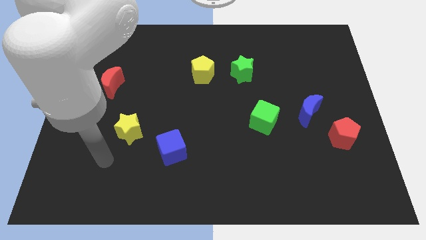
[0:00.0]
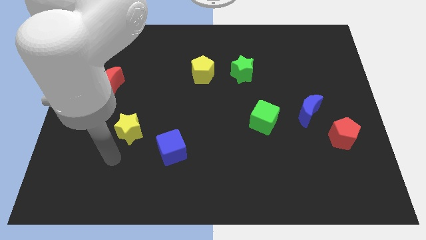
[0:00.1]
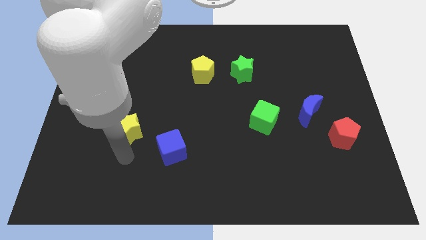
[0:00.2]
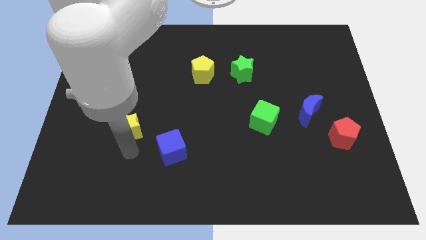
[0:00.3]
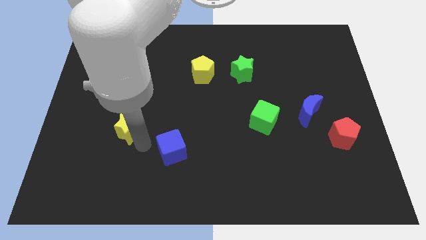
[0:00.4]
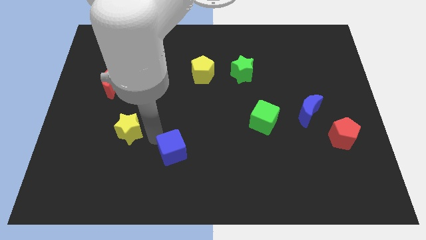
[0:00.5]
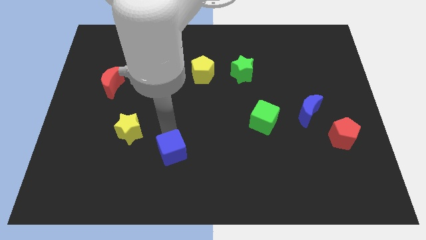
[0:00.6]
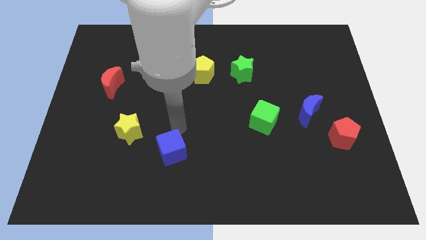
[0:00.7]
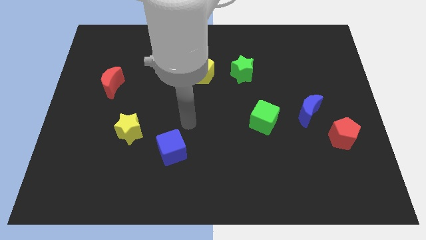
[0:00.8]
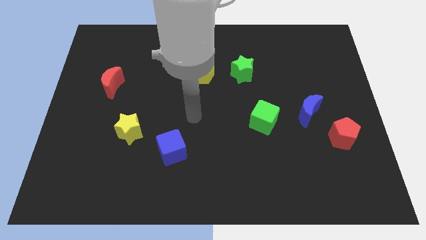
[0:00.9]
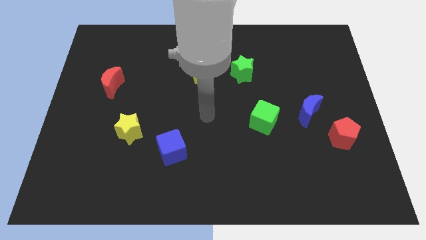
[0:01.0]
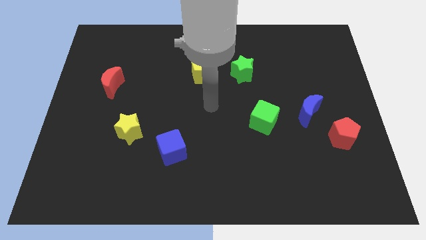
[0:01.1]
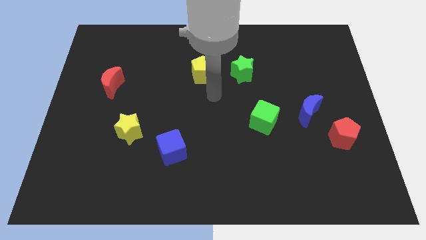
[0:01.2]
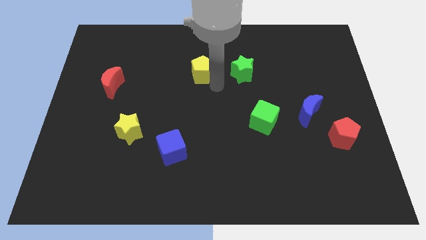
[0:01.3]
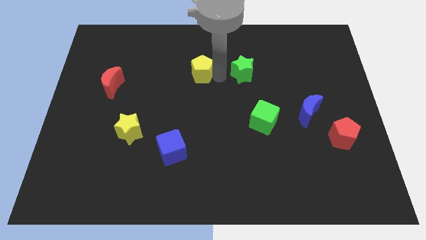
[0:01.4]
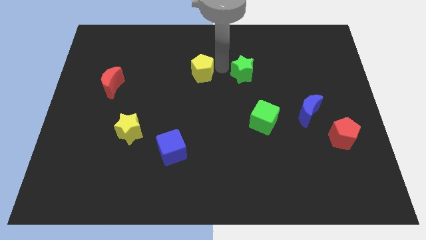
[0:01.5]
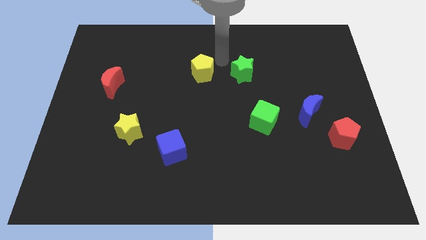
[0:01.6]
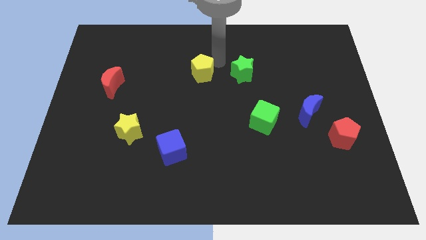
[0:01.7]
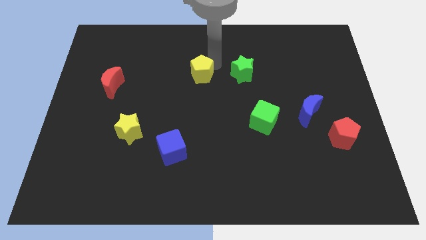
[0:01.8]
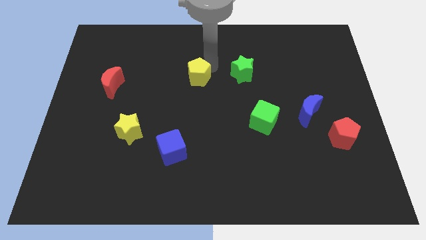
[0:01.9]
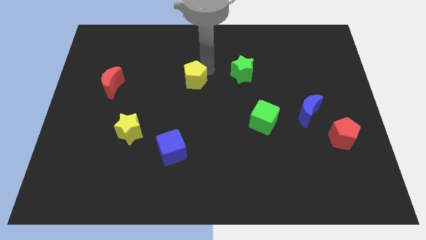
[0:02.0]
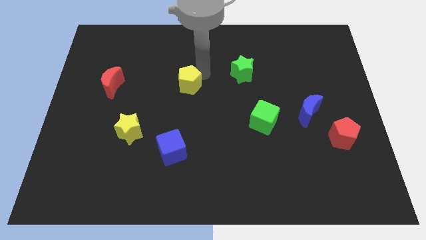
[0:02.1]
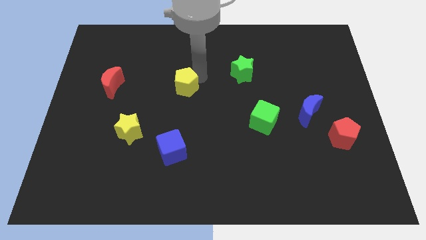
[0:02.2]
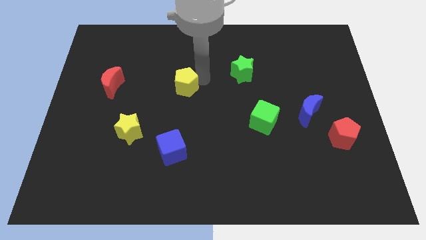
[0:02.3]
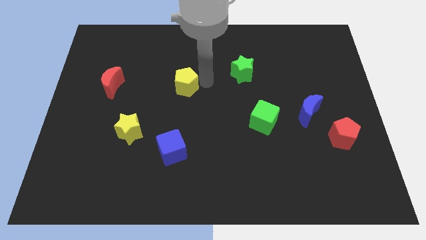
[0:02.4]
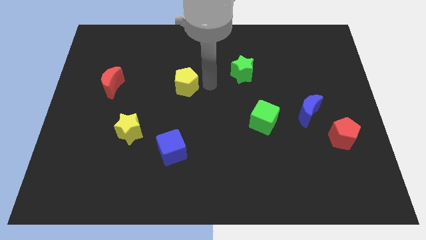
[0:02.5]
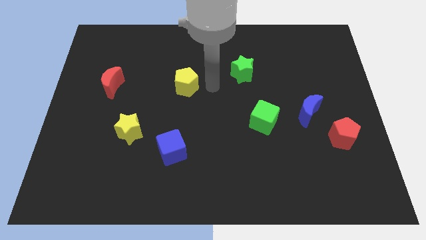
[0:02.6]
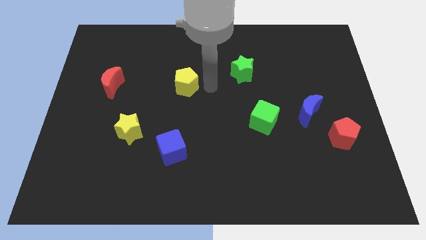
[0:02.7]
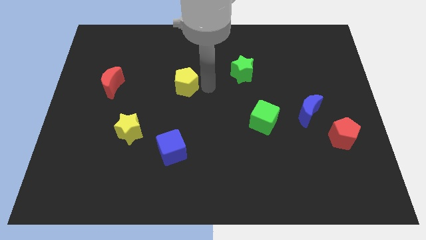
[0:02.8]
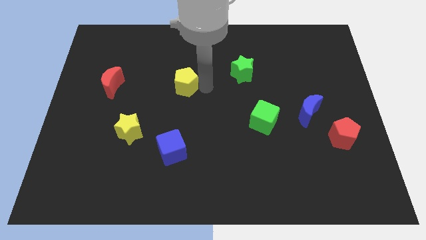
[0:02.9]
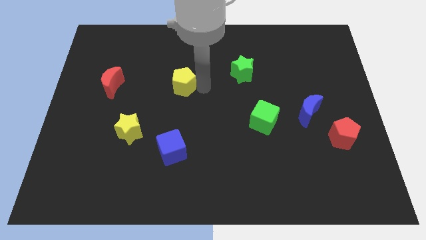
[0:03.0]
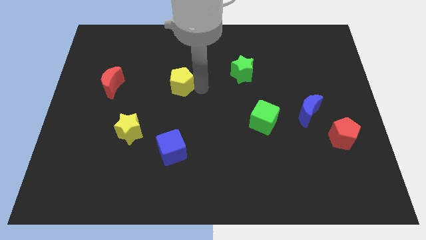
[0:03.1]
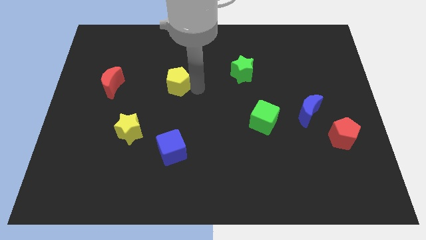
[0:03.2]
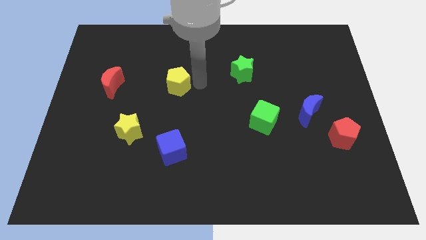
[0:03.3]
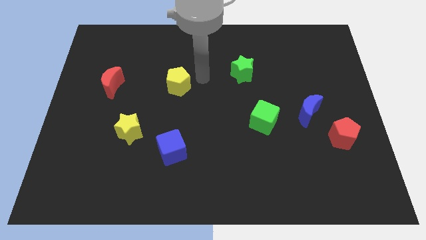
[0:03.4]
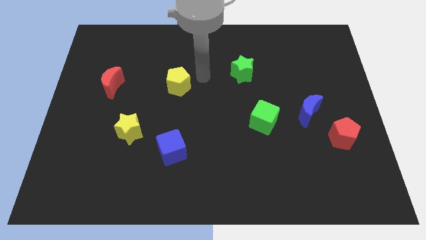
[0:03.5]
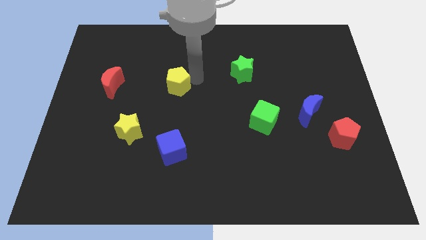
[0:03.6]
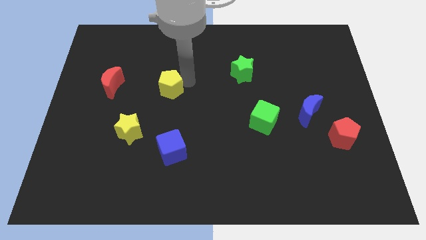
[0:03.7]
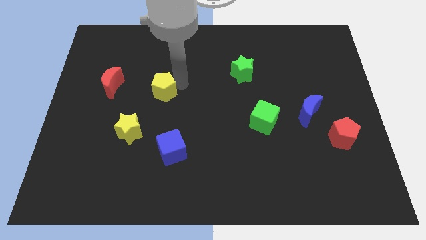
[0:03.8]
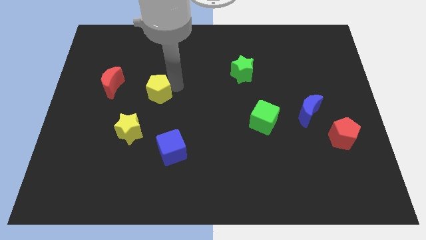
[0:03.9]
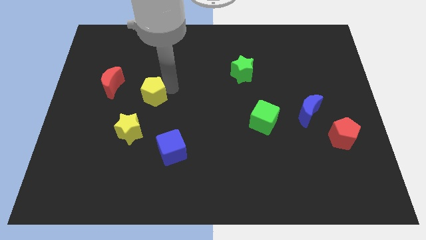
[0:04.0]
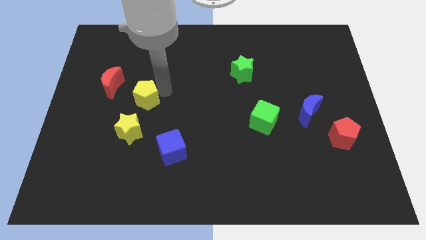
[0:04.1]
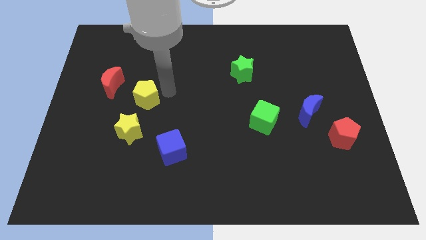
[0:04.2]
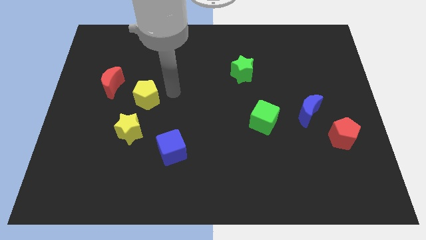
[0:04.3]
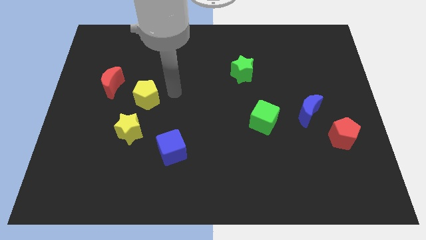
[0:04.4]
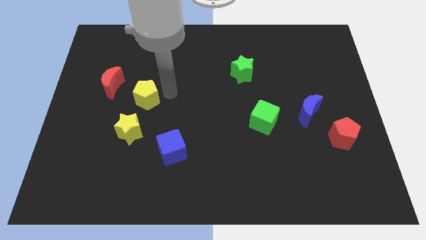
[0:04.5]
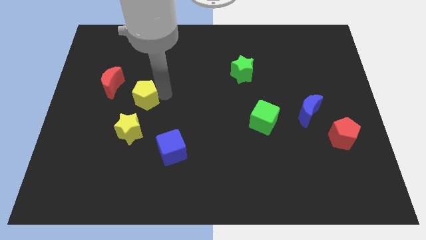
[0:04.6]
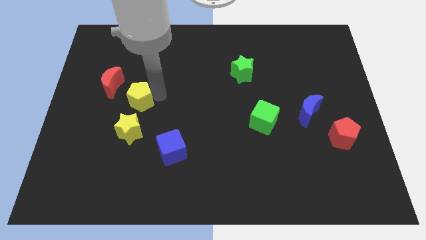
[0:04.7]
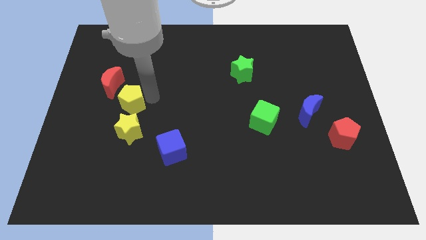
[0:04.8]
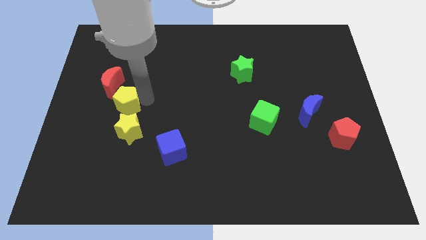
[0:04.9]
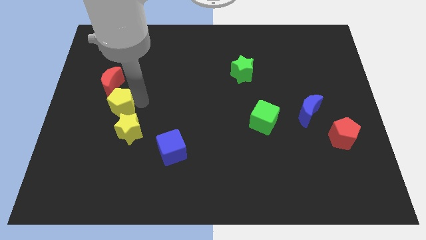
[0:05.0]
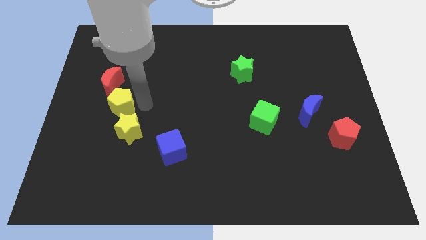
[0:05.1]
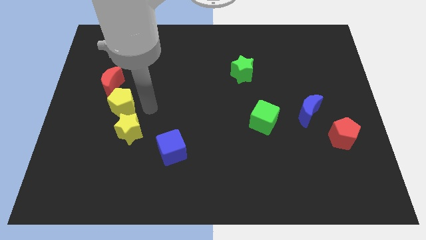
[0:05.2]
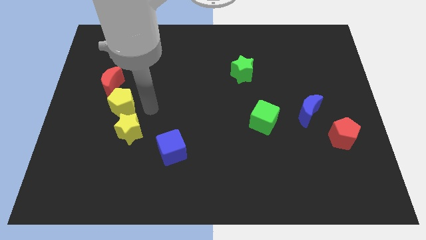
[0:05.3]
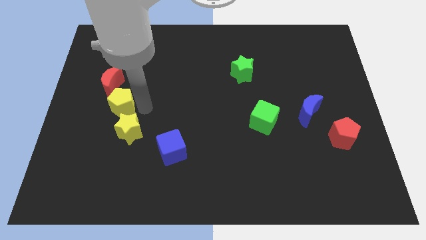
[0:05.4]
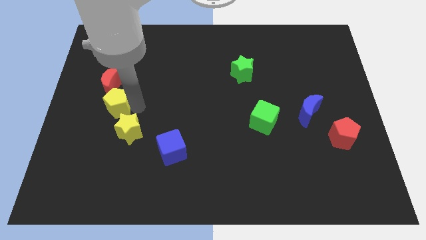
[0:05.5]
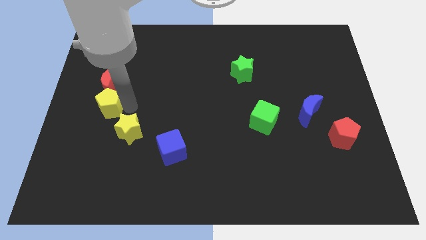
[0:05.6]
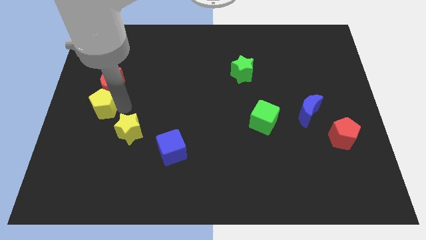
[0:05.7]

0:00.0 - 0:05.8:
put the yellow pentagon to the left side

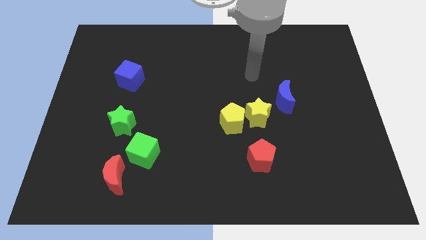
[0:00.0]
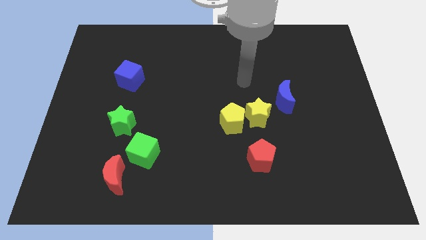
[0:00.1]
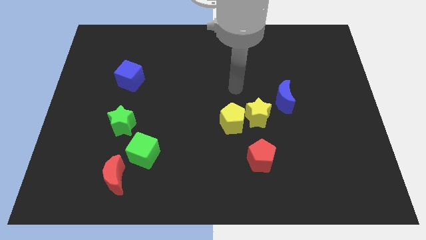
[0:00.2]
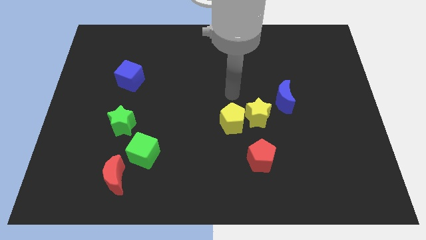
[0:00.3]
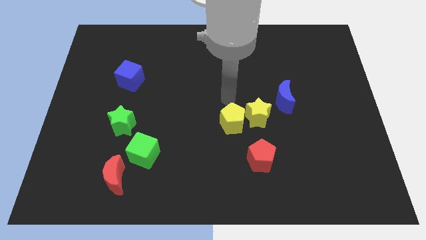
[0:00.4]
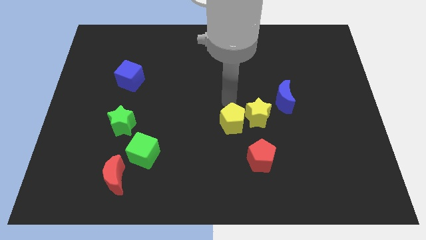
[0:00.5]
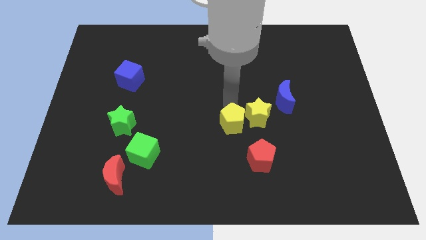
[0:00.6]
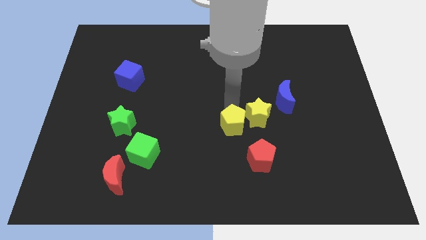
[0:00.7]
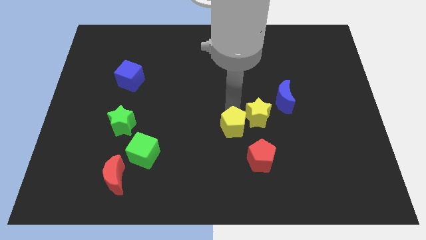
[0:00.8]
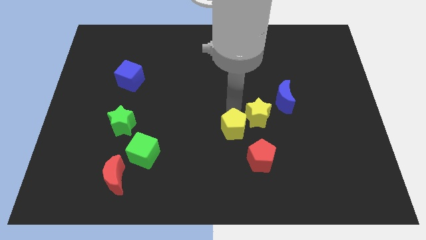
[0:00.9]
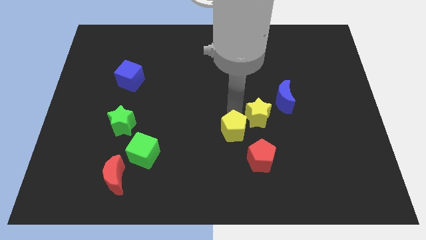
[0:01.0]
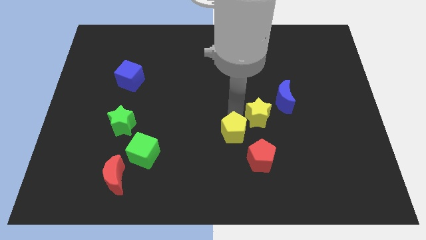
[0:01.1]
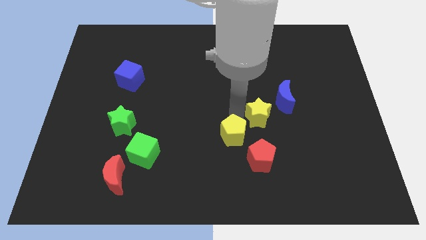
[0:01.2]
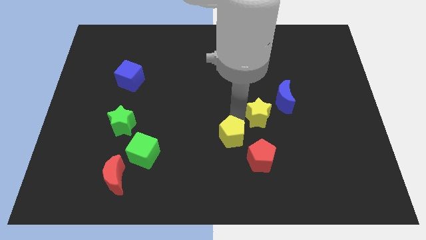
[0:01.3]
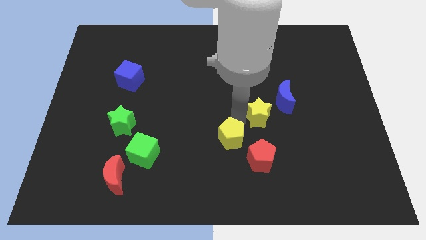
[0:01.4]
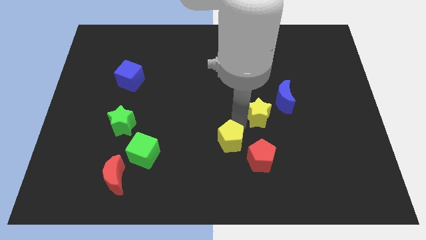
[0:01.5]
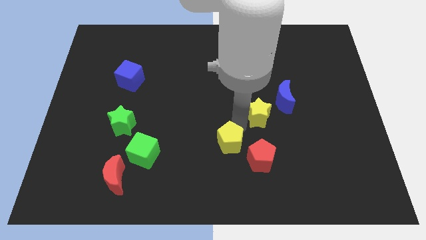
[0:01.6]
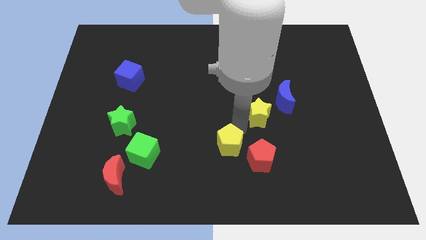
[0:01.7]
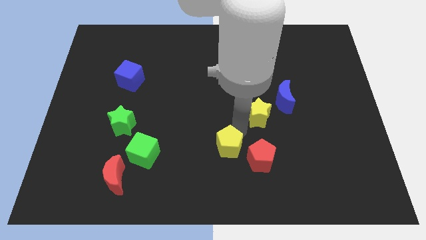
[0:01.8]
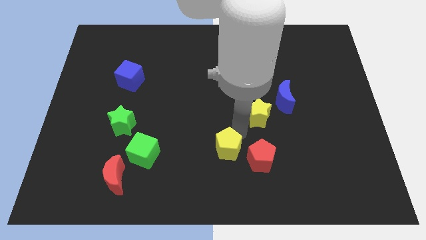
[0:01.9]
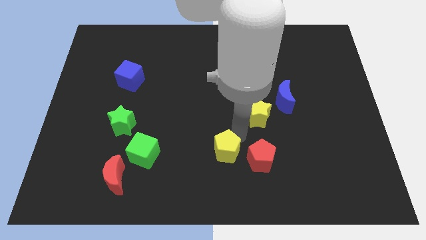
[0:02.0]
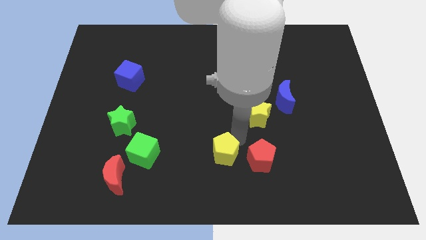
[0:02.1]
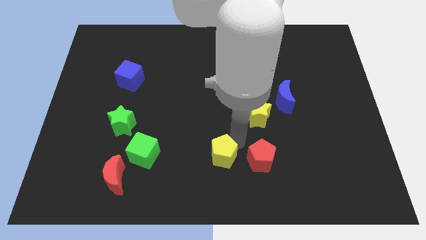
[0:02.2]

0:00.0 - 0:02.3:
slide the yellow pentagon to the bottom
